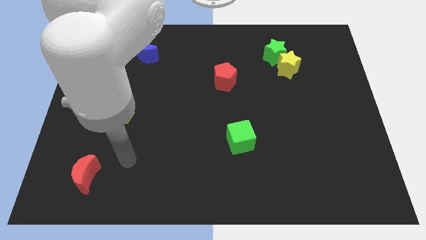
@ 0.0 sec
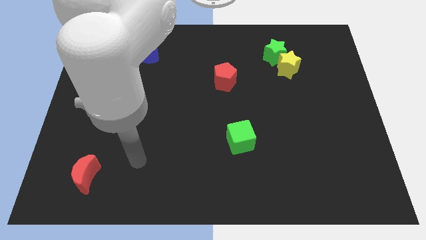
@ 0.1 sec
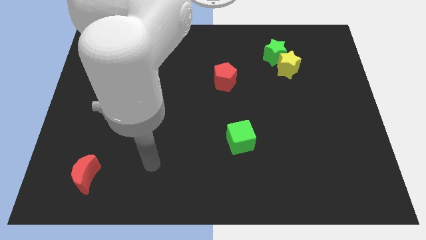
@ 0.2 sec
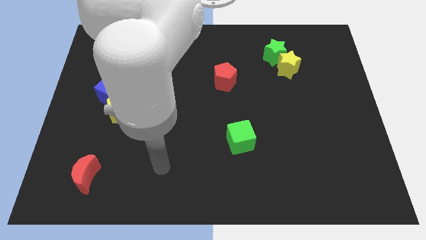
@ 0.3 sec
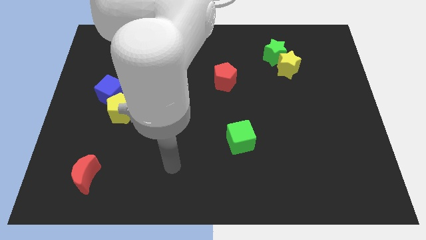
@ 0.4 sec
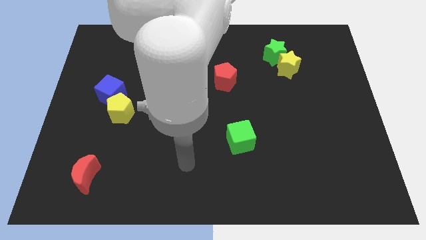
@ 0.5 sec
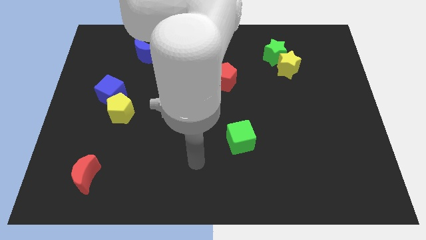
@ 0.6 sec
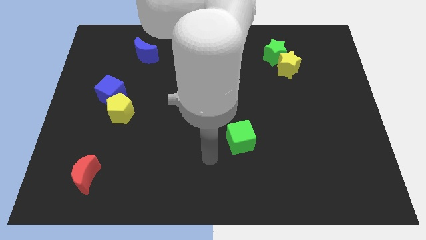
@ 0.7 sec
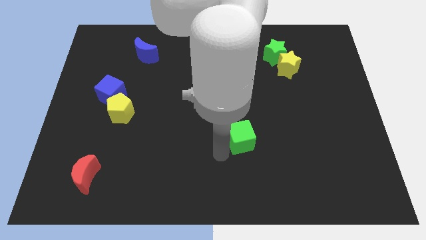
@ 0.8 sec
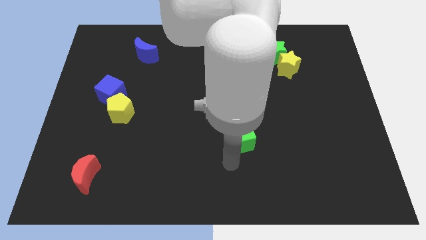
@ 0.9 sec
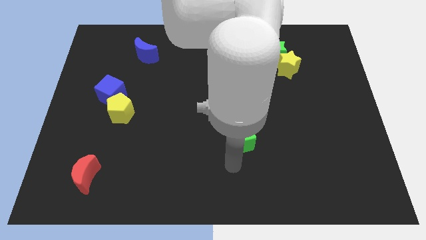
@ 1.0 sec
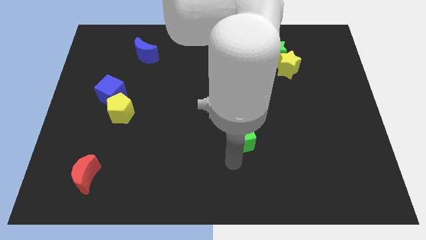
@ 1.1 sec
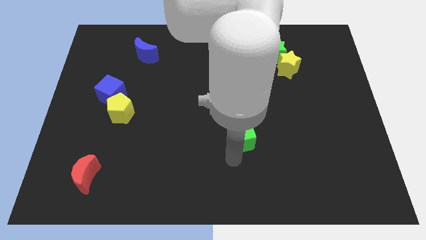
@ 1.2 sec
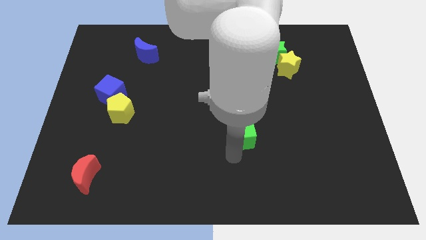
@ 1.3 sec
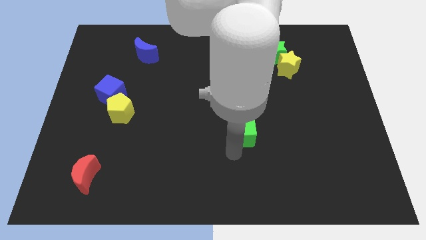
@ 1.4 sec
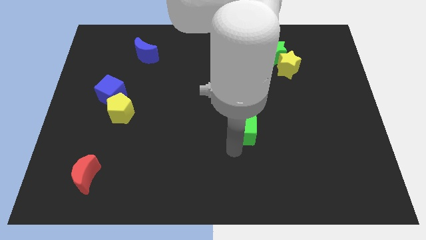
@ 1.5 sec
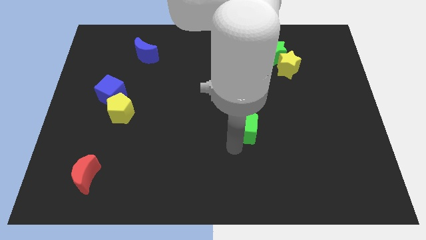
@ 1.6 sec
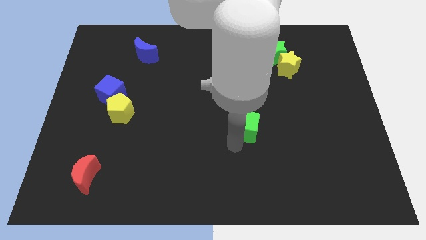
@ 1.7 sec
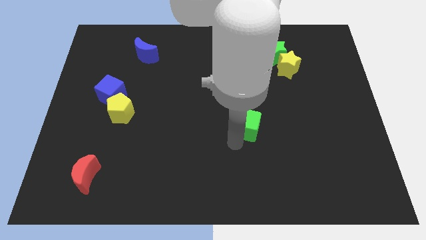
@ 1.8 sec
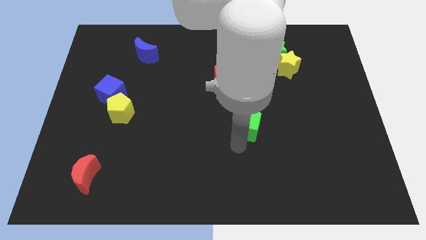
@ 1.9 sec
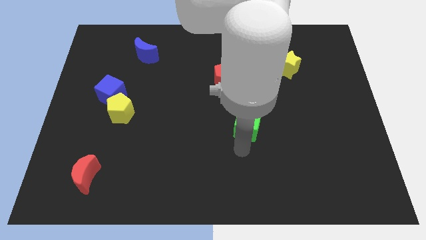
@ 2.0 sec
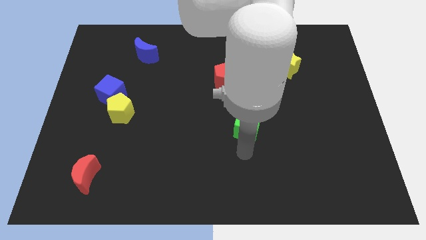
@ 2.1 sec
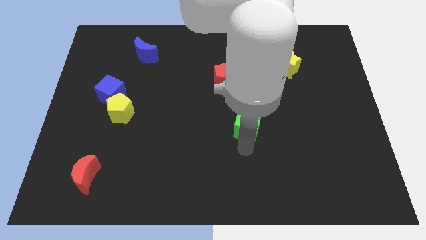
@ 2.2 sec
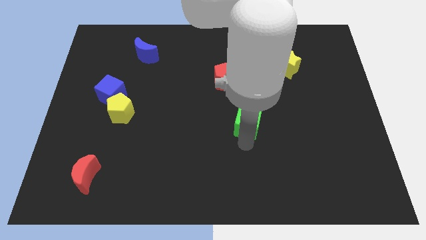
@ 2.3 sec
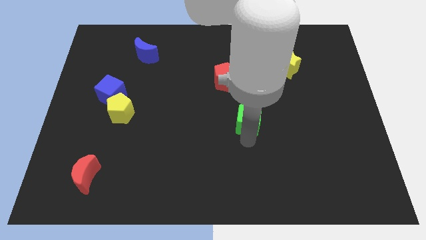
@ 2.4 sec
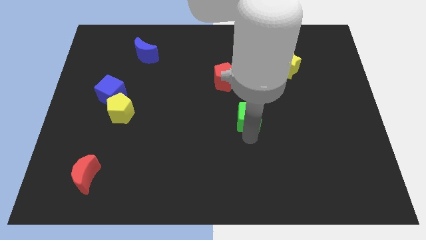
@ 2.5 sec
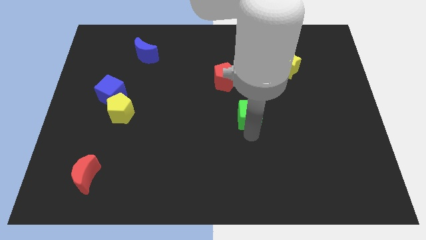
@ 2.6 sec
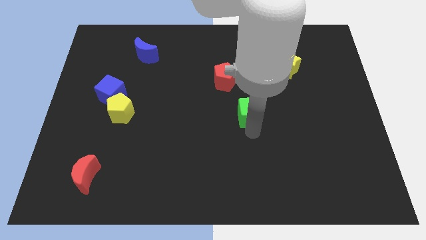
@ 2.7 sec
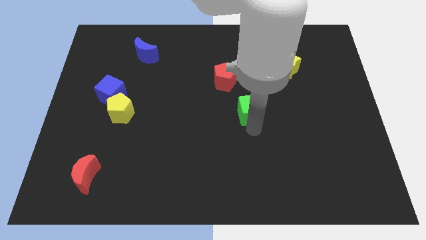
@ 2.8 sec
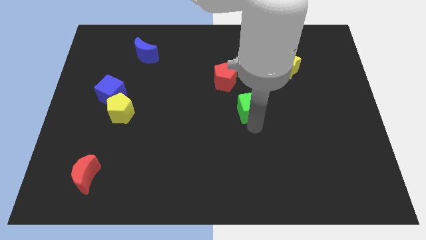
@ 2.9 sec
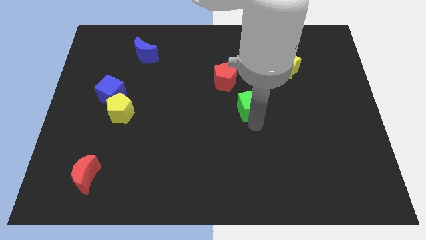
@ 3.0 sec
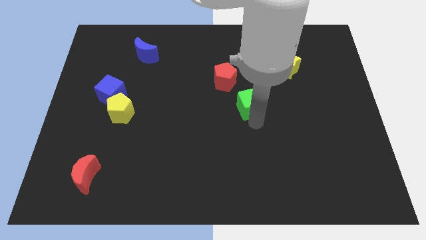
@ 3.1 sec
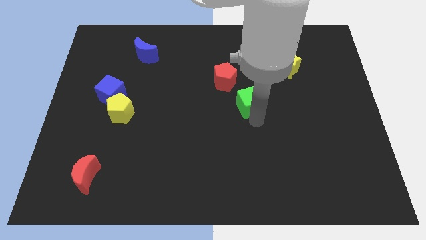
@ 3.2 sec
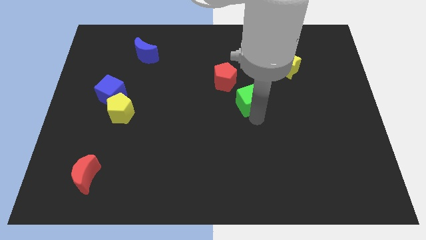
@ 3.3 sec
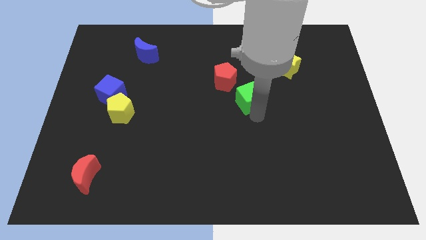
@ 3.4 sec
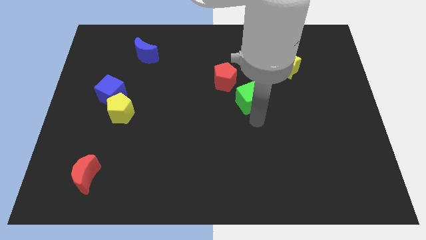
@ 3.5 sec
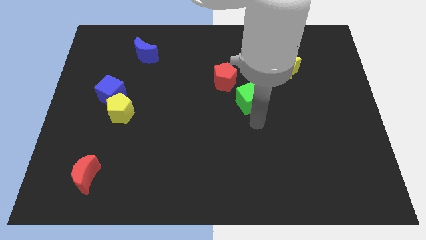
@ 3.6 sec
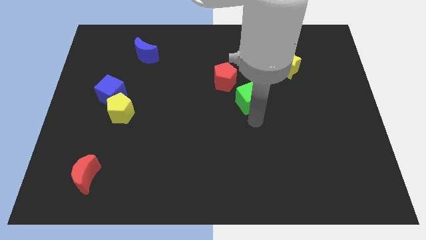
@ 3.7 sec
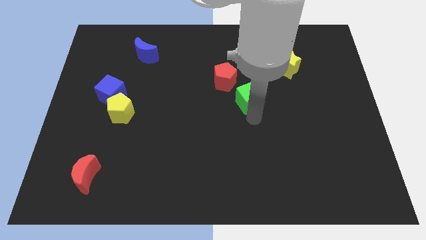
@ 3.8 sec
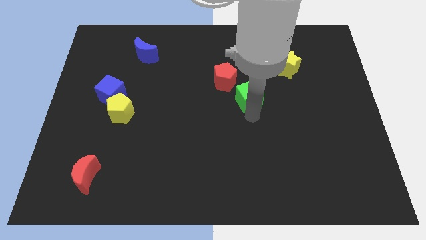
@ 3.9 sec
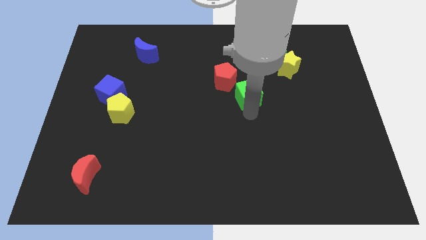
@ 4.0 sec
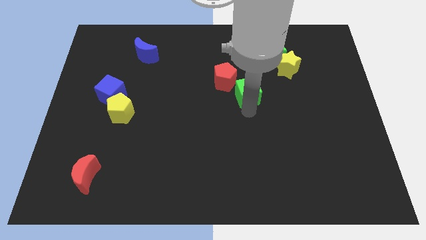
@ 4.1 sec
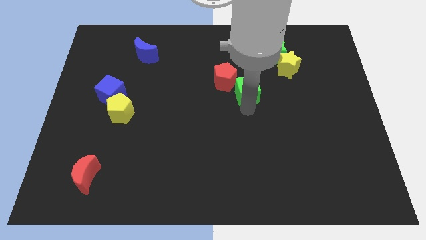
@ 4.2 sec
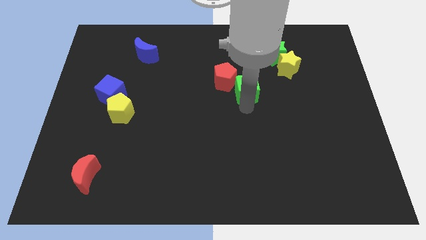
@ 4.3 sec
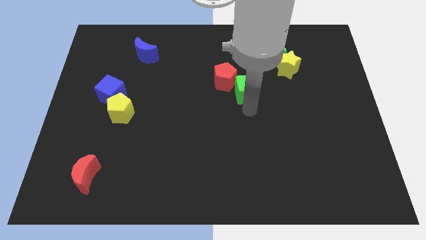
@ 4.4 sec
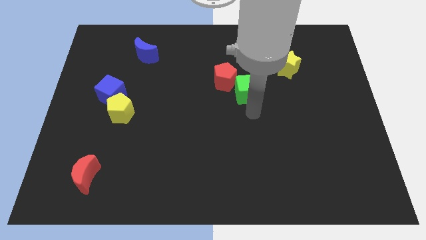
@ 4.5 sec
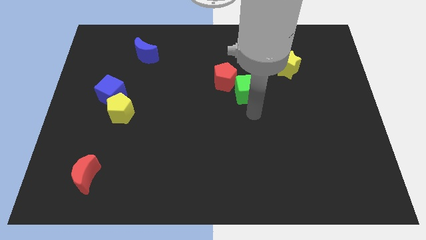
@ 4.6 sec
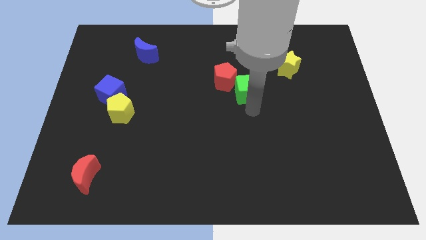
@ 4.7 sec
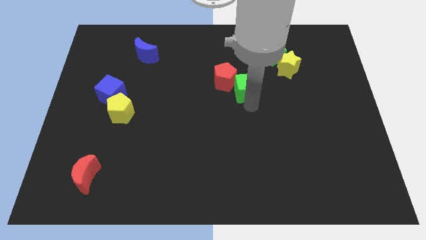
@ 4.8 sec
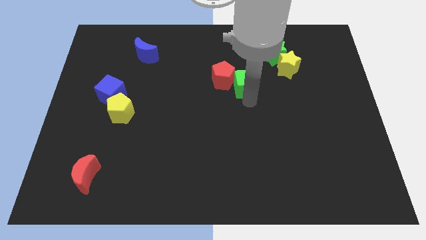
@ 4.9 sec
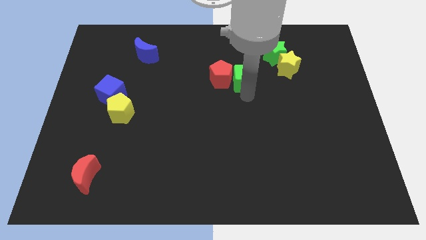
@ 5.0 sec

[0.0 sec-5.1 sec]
move the green cube to the left of the yellow star

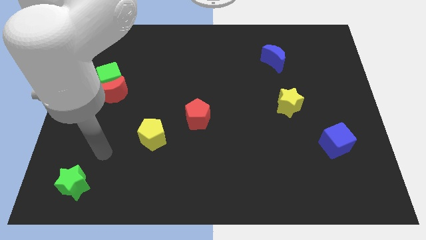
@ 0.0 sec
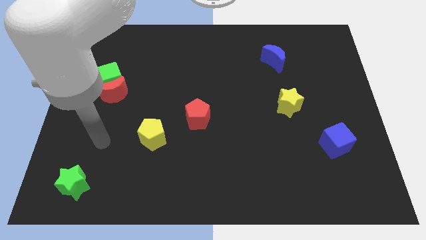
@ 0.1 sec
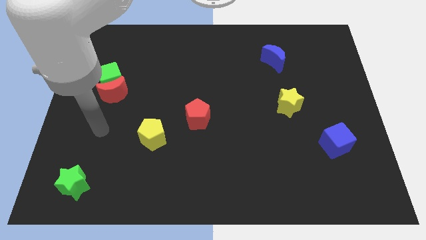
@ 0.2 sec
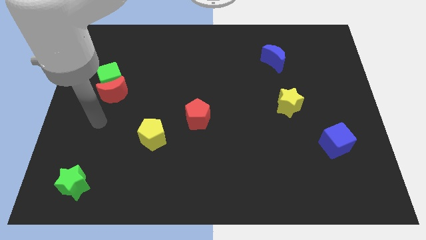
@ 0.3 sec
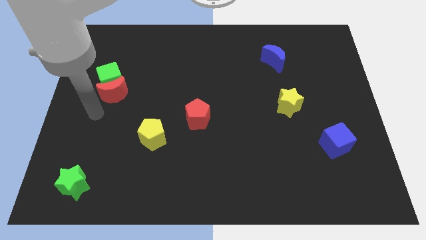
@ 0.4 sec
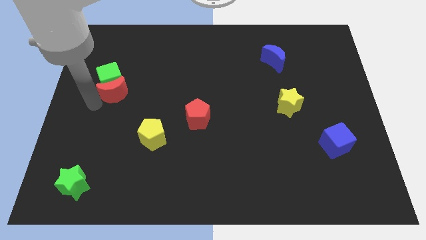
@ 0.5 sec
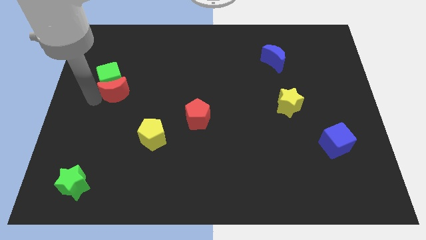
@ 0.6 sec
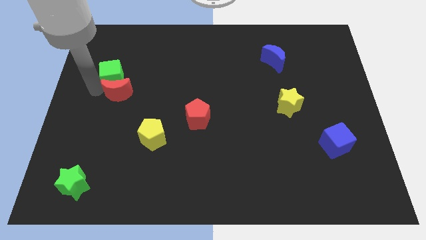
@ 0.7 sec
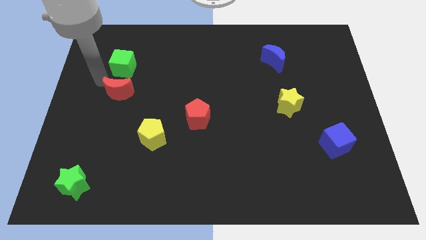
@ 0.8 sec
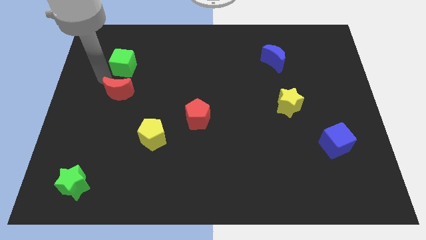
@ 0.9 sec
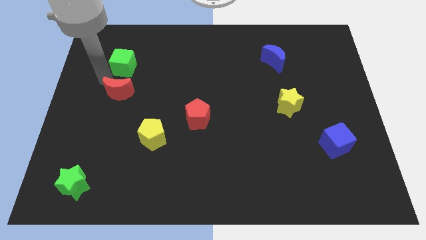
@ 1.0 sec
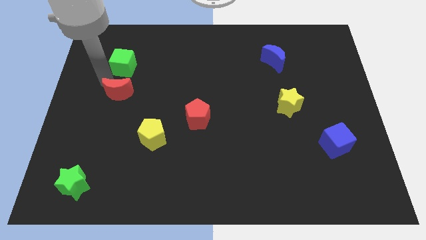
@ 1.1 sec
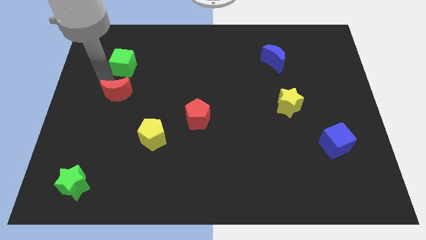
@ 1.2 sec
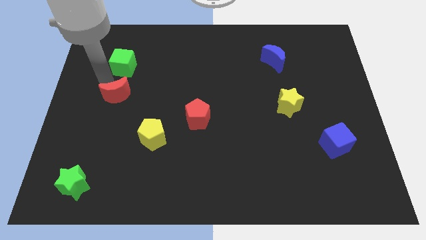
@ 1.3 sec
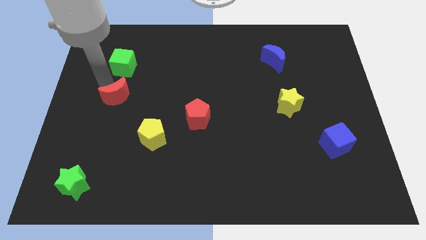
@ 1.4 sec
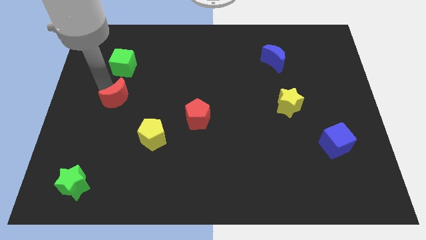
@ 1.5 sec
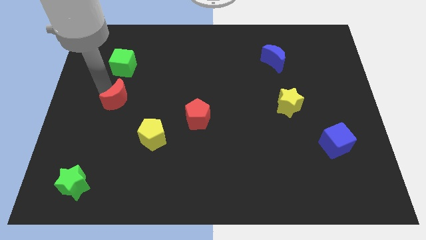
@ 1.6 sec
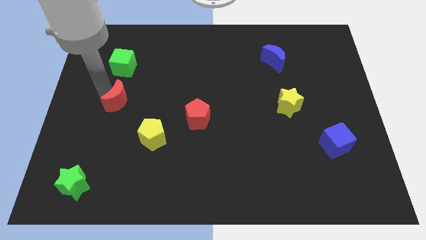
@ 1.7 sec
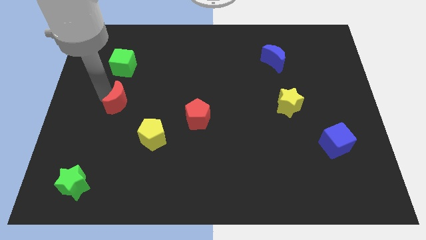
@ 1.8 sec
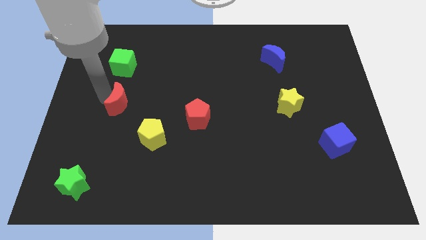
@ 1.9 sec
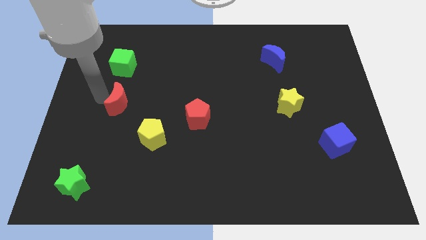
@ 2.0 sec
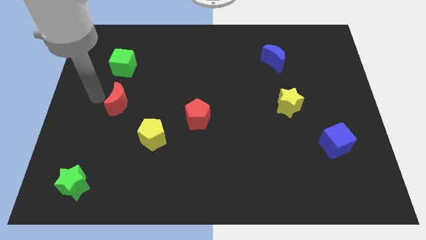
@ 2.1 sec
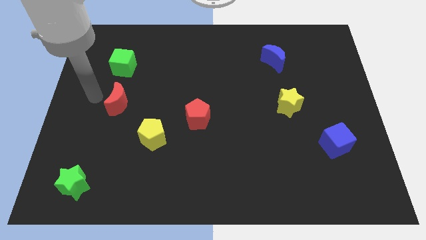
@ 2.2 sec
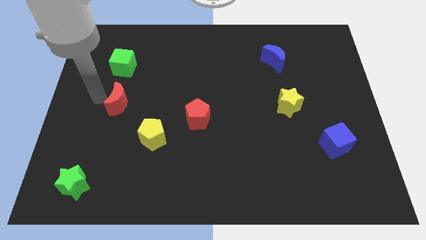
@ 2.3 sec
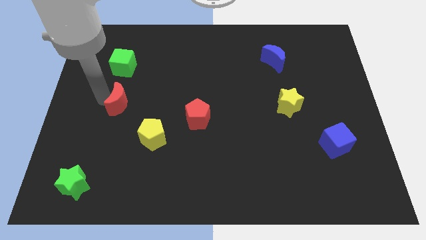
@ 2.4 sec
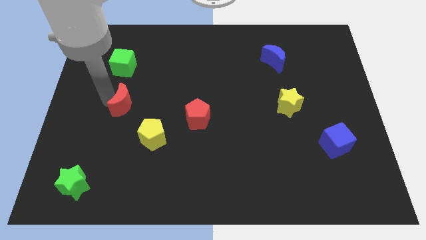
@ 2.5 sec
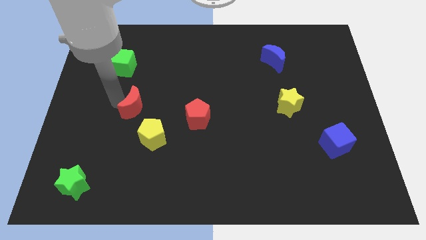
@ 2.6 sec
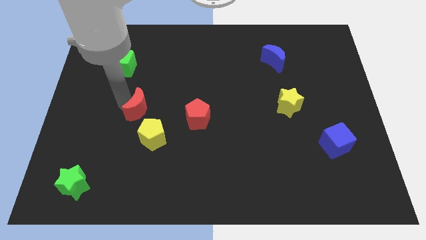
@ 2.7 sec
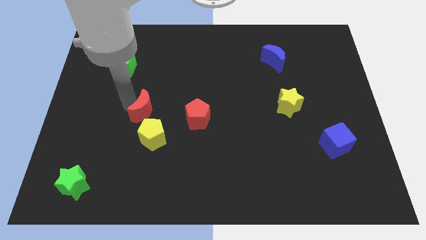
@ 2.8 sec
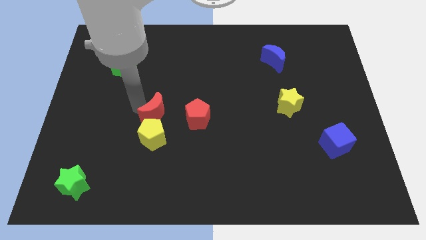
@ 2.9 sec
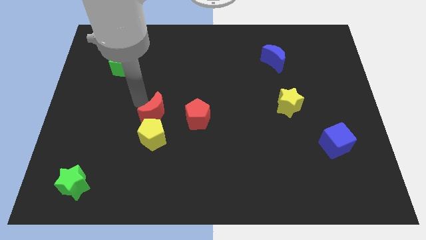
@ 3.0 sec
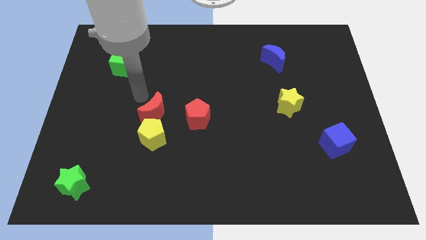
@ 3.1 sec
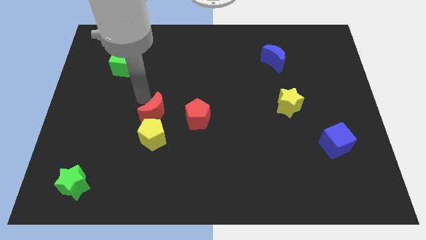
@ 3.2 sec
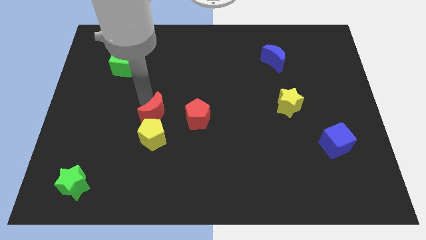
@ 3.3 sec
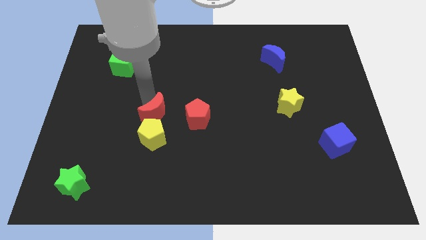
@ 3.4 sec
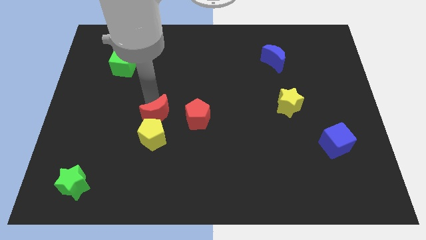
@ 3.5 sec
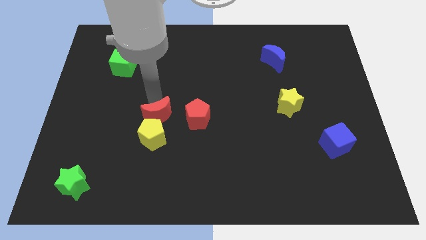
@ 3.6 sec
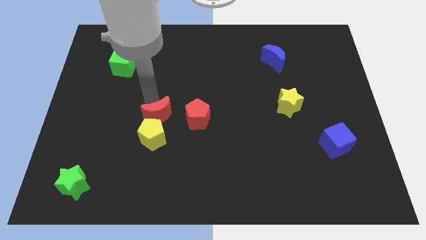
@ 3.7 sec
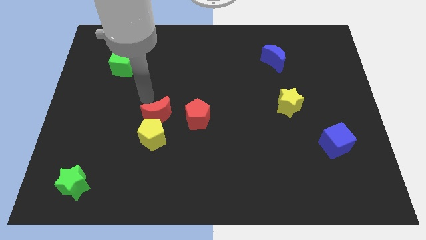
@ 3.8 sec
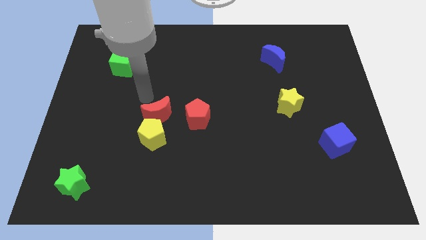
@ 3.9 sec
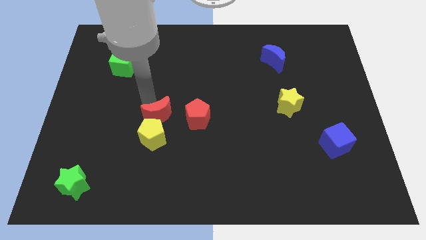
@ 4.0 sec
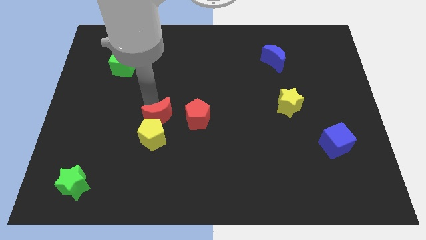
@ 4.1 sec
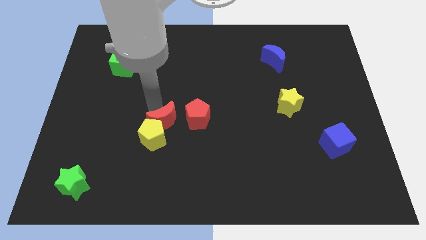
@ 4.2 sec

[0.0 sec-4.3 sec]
put the red moon to the bottom left side of the red pentagon
